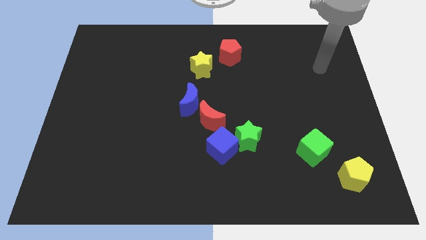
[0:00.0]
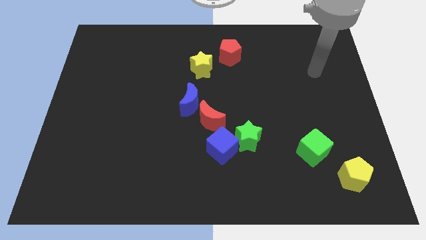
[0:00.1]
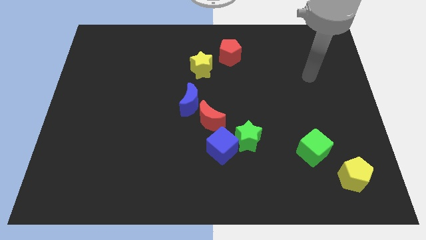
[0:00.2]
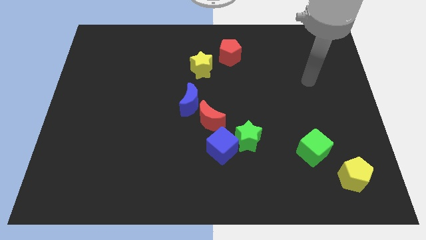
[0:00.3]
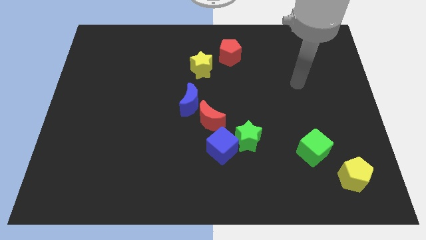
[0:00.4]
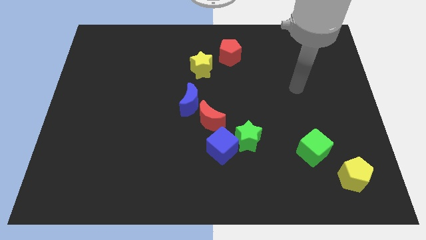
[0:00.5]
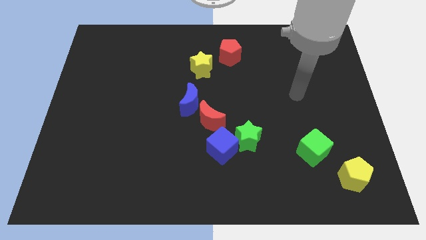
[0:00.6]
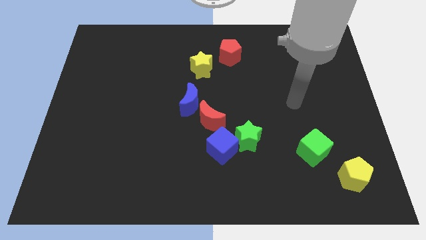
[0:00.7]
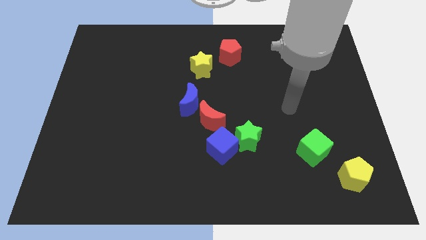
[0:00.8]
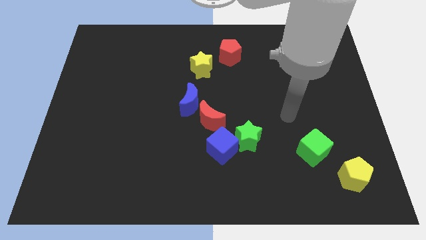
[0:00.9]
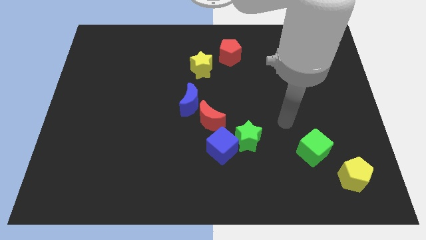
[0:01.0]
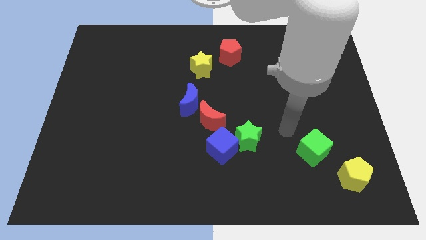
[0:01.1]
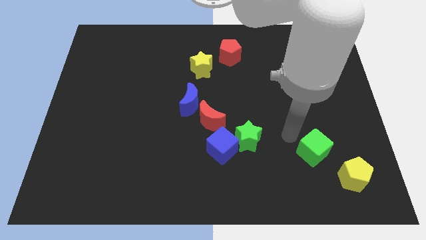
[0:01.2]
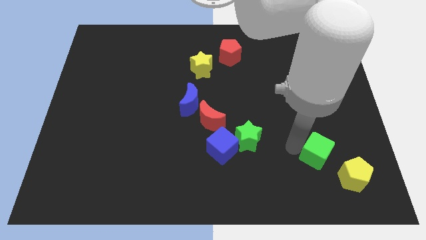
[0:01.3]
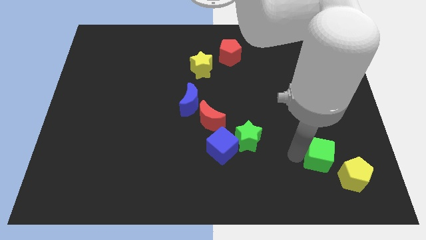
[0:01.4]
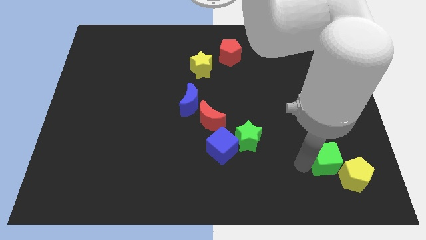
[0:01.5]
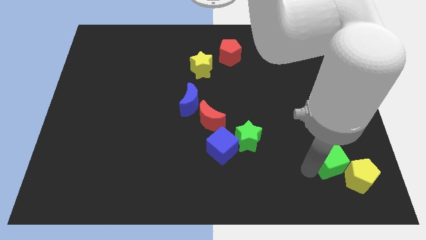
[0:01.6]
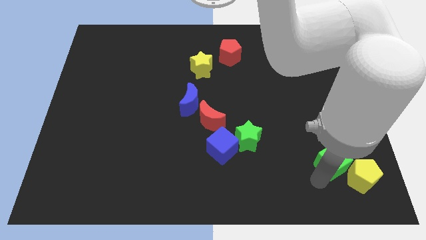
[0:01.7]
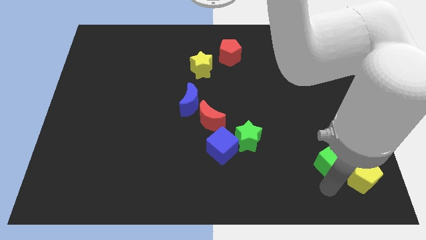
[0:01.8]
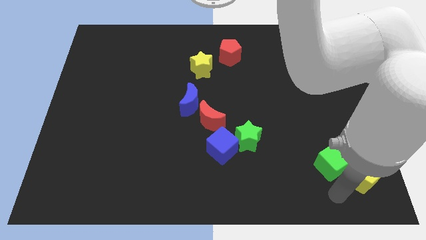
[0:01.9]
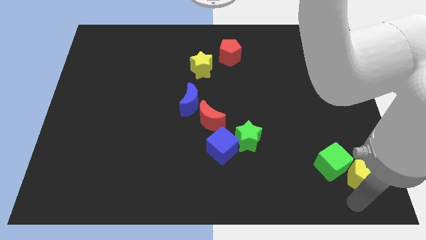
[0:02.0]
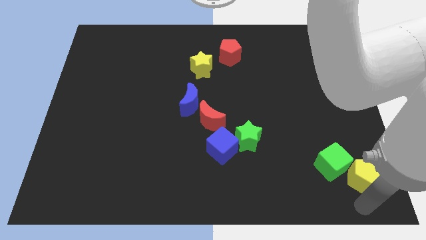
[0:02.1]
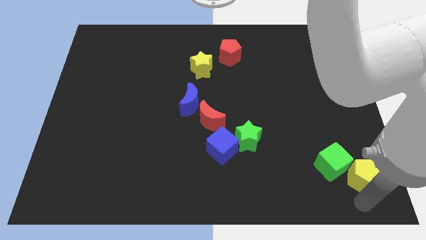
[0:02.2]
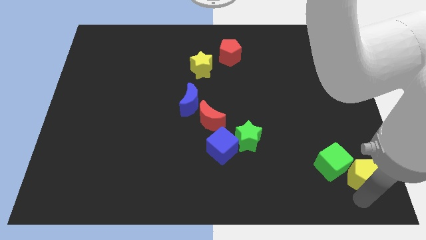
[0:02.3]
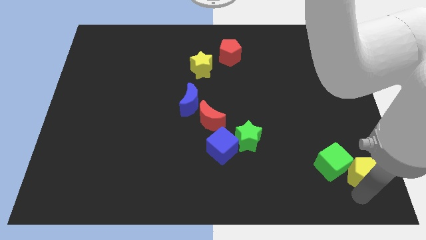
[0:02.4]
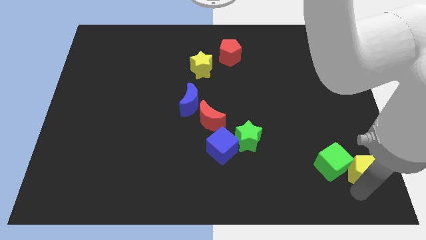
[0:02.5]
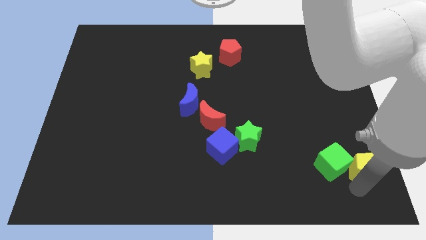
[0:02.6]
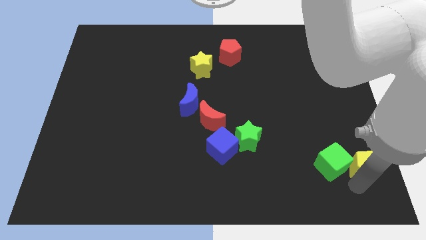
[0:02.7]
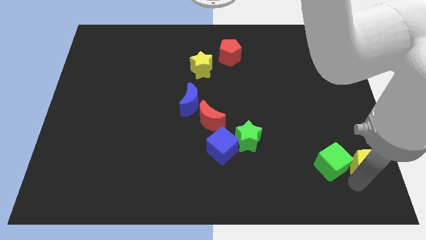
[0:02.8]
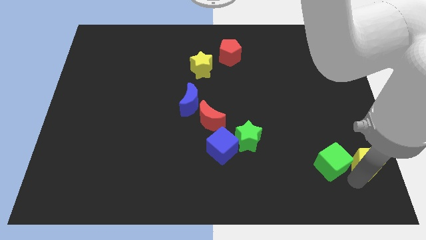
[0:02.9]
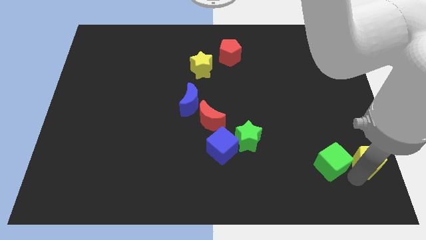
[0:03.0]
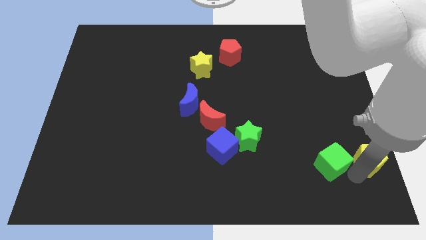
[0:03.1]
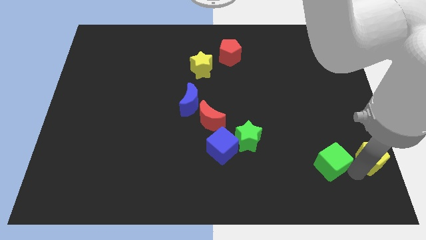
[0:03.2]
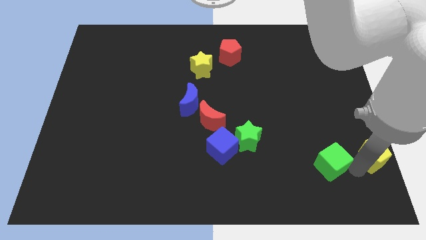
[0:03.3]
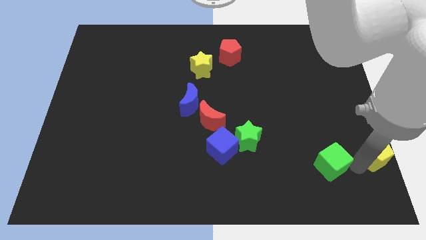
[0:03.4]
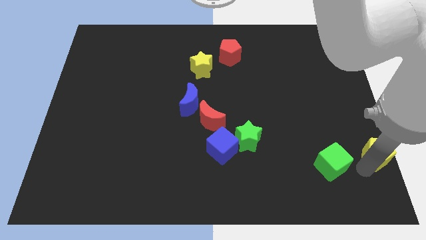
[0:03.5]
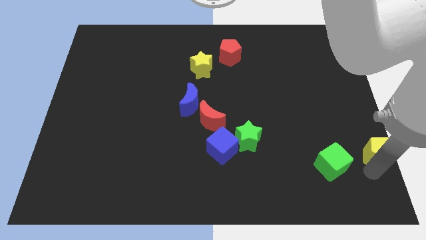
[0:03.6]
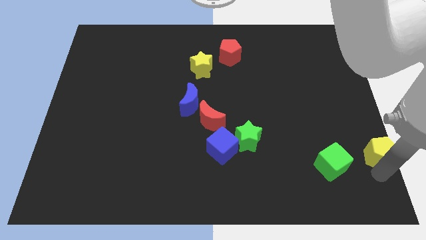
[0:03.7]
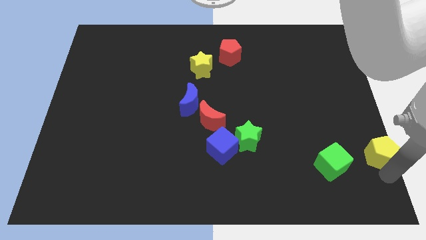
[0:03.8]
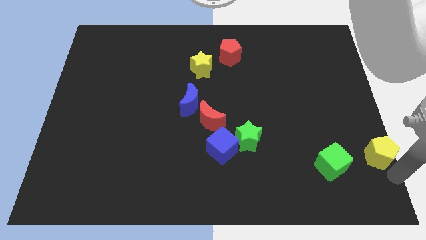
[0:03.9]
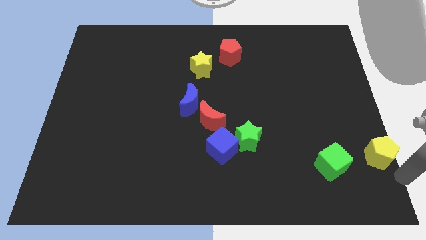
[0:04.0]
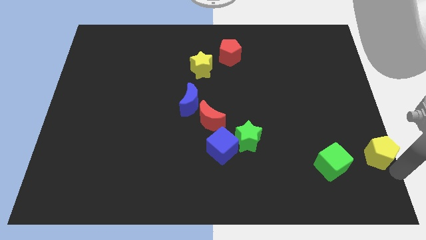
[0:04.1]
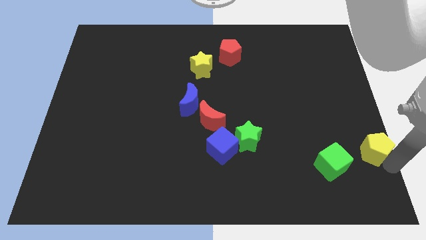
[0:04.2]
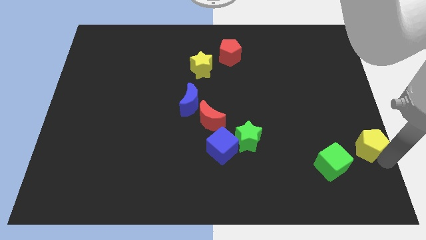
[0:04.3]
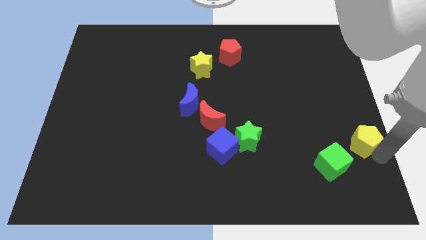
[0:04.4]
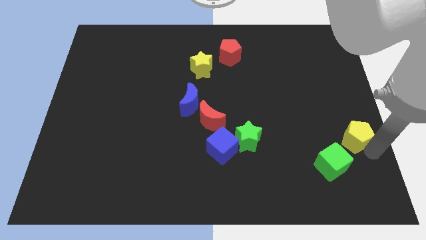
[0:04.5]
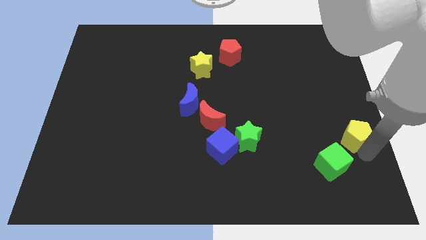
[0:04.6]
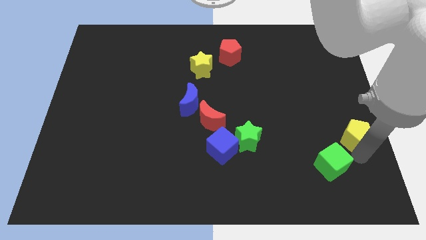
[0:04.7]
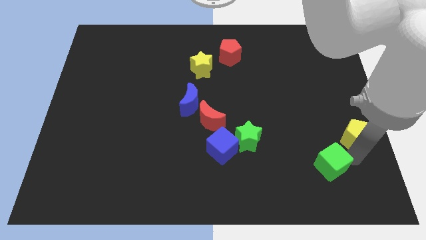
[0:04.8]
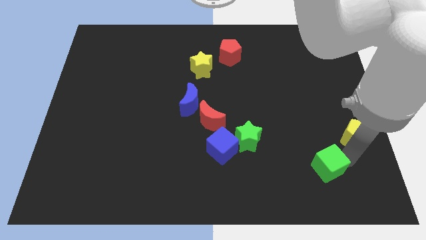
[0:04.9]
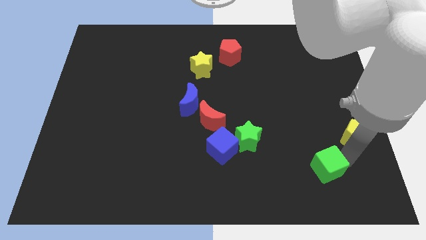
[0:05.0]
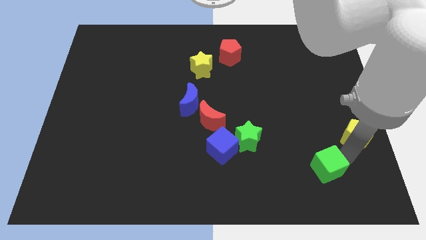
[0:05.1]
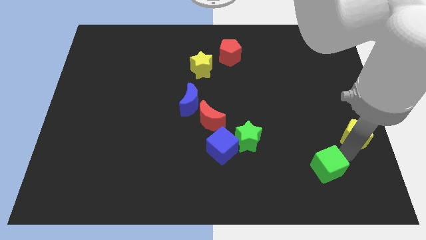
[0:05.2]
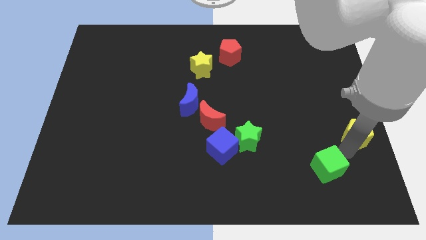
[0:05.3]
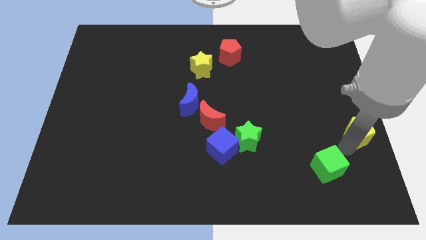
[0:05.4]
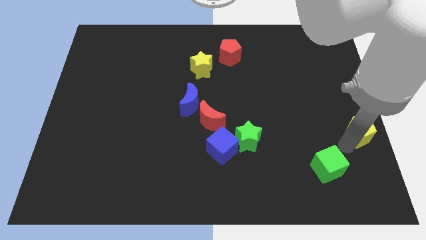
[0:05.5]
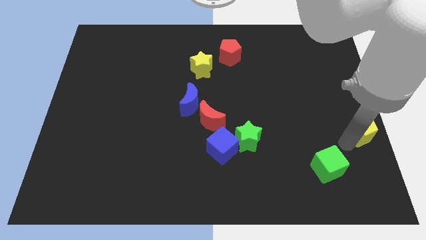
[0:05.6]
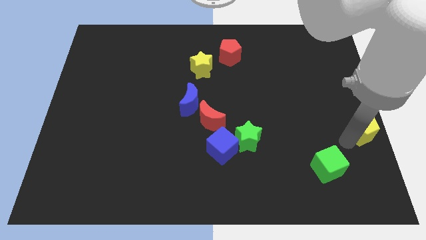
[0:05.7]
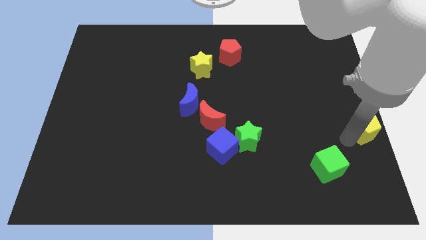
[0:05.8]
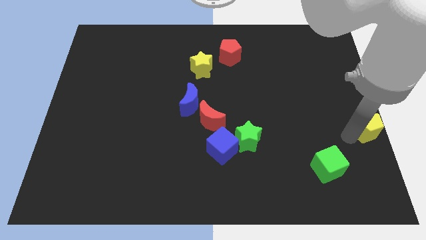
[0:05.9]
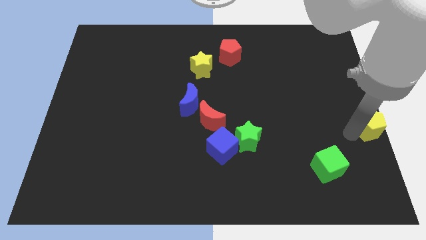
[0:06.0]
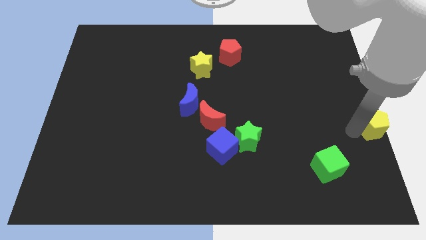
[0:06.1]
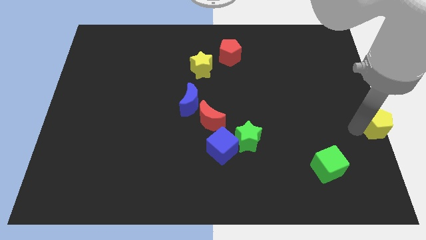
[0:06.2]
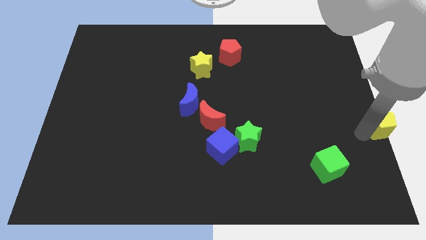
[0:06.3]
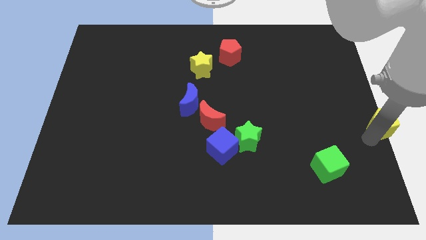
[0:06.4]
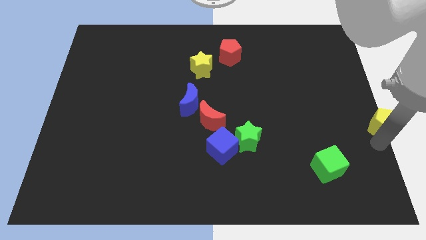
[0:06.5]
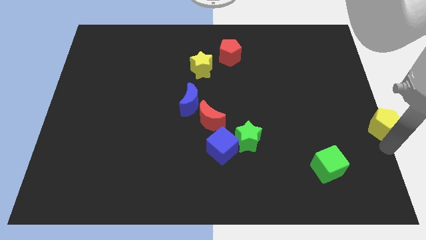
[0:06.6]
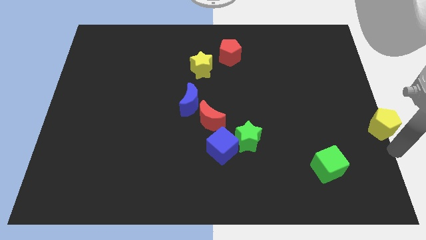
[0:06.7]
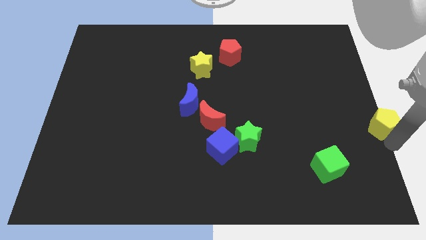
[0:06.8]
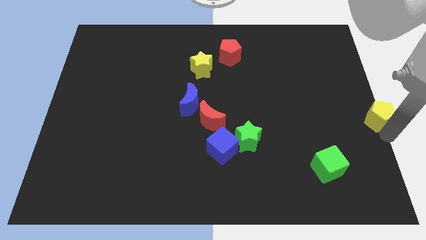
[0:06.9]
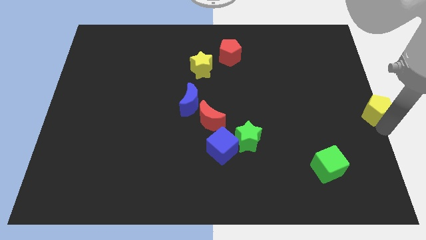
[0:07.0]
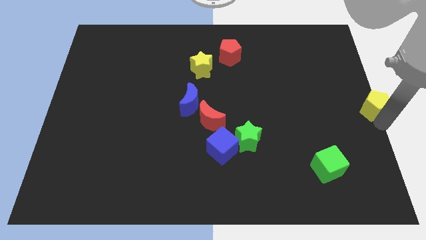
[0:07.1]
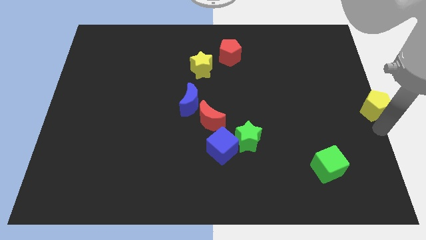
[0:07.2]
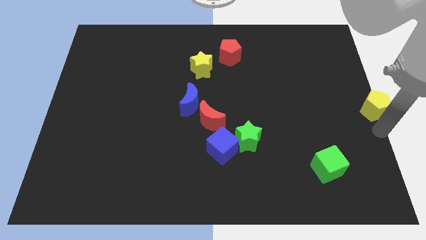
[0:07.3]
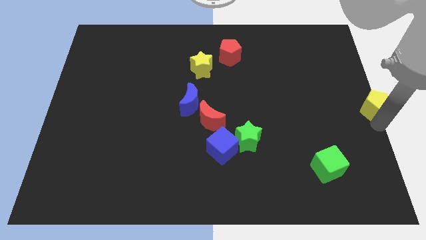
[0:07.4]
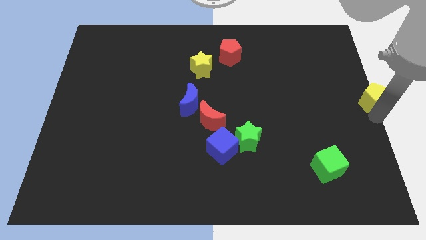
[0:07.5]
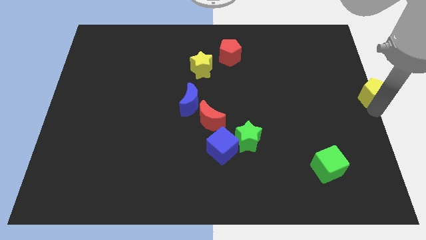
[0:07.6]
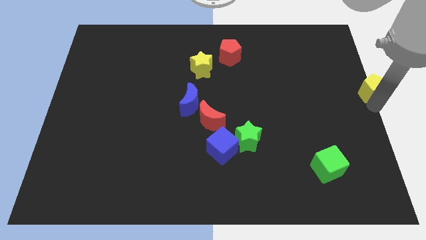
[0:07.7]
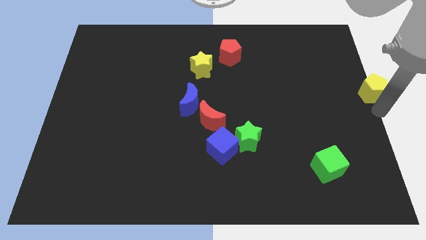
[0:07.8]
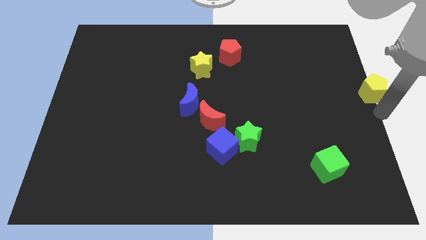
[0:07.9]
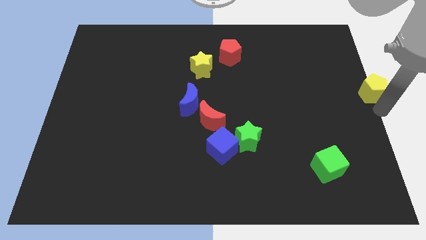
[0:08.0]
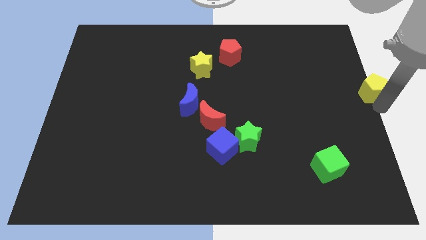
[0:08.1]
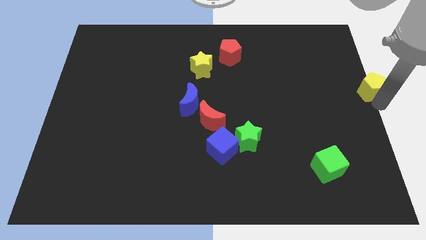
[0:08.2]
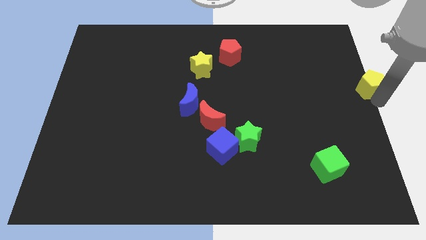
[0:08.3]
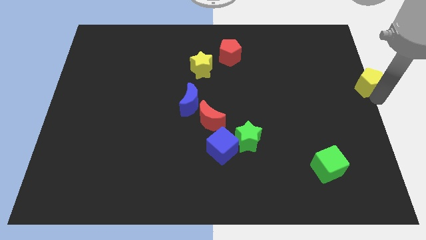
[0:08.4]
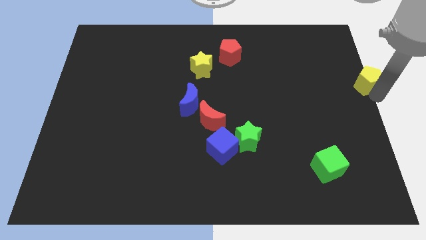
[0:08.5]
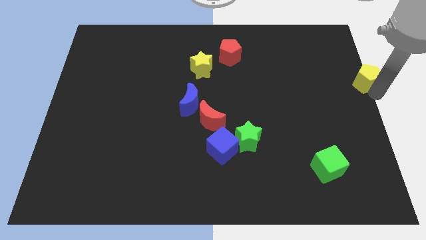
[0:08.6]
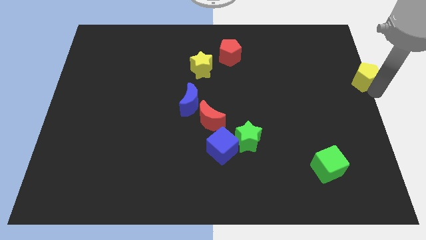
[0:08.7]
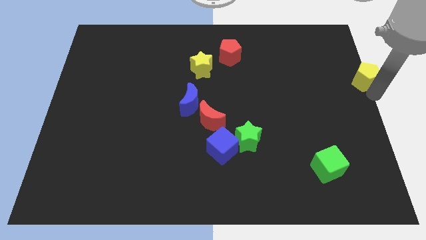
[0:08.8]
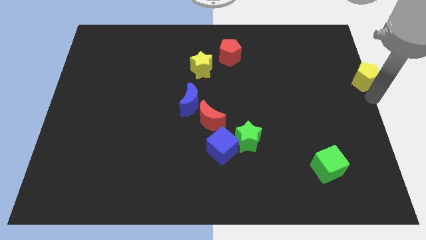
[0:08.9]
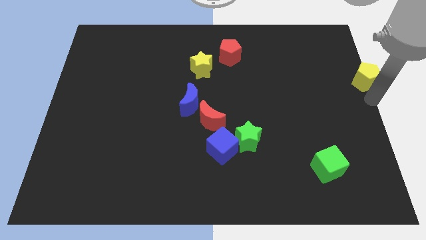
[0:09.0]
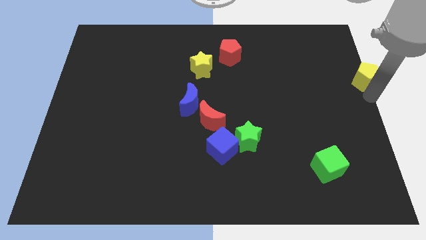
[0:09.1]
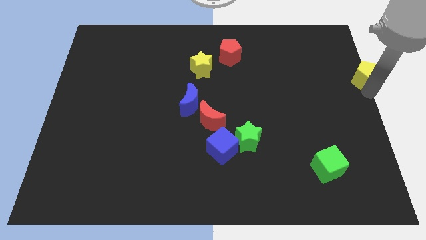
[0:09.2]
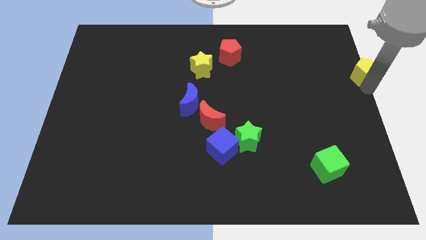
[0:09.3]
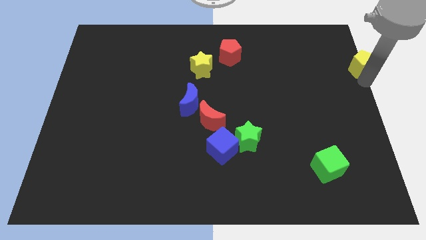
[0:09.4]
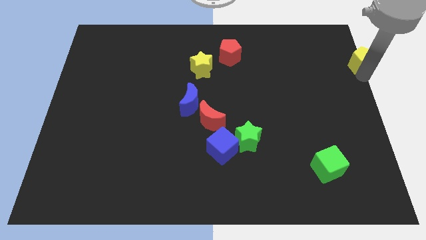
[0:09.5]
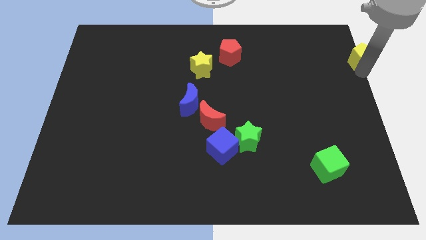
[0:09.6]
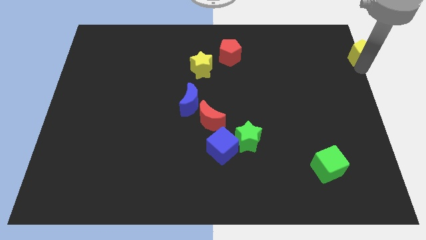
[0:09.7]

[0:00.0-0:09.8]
put the yellow pentagon to the upper right corner
